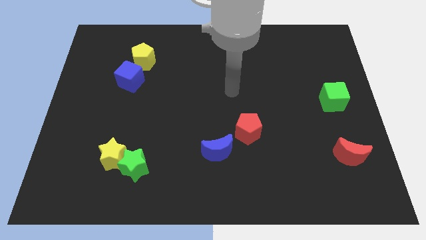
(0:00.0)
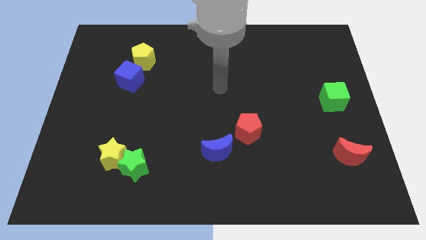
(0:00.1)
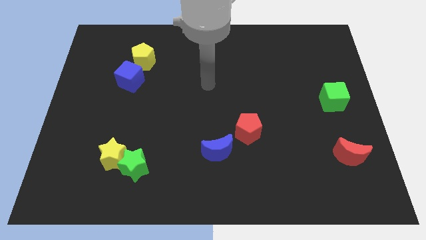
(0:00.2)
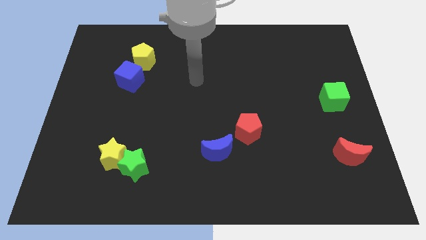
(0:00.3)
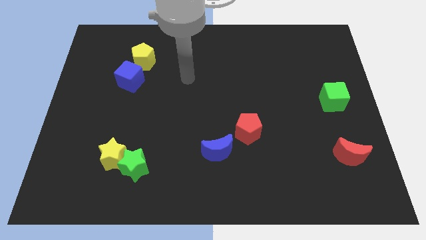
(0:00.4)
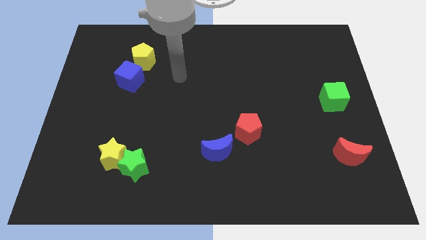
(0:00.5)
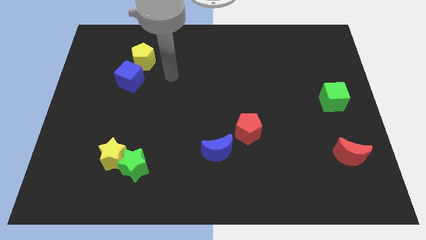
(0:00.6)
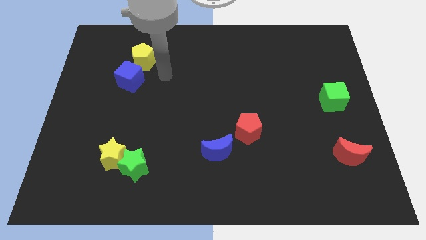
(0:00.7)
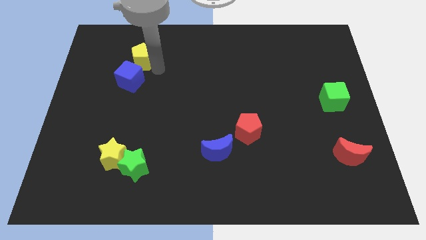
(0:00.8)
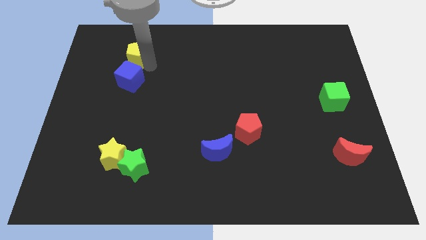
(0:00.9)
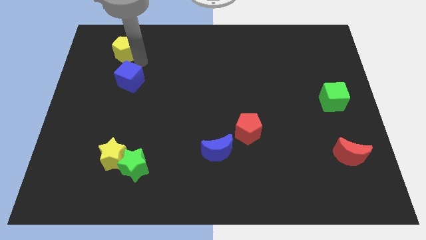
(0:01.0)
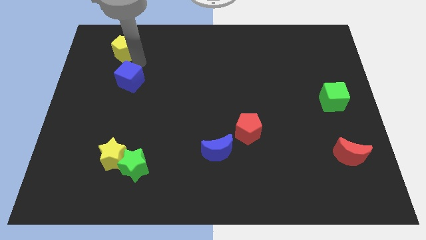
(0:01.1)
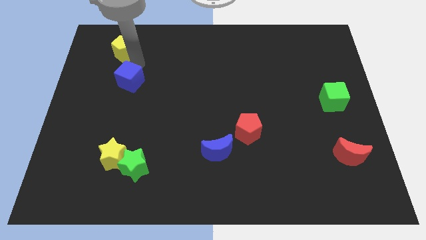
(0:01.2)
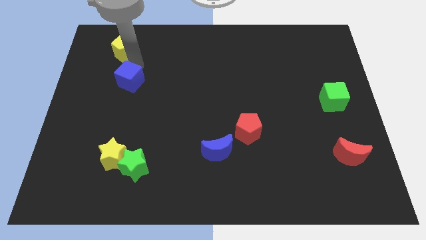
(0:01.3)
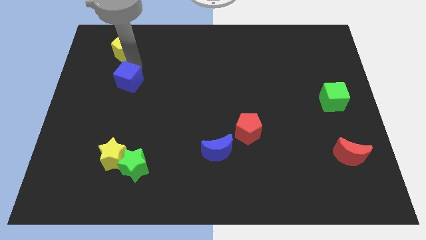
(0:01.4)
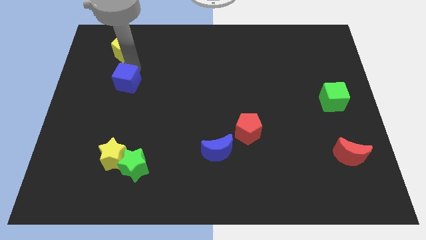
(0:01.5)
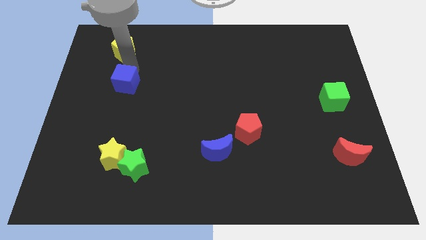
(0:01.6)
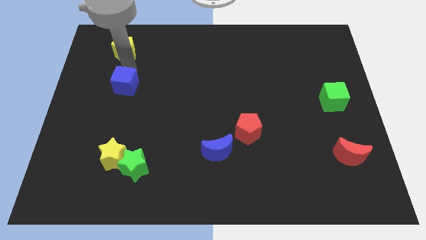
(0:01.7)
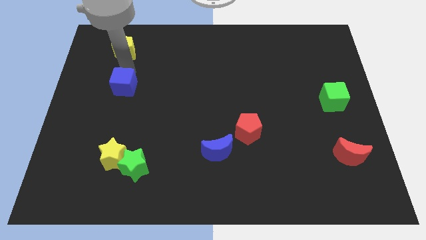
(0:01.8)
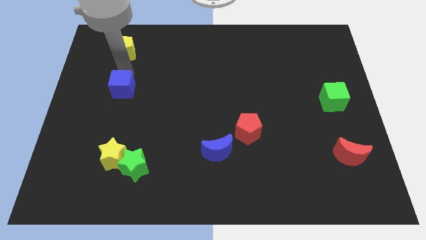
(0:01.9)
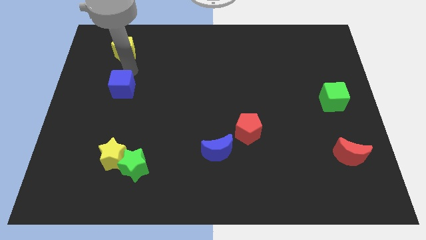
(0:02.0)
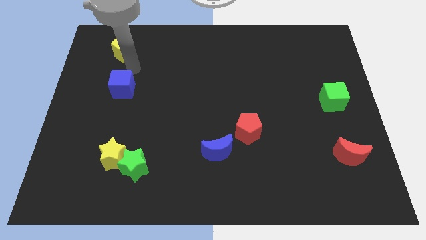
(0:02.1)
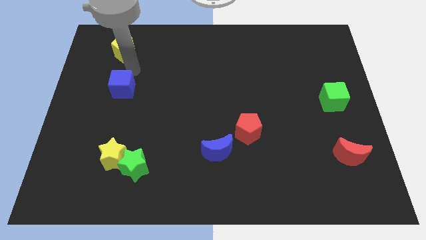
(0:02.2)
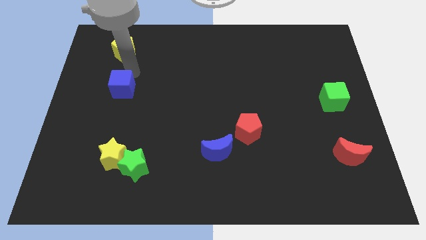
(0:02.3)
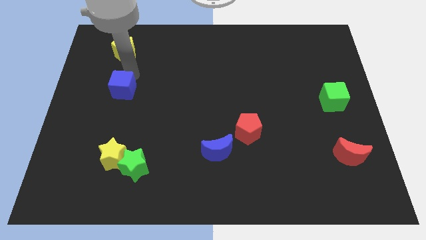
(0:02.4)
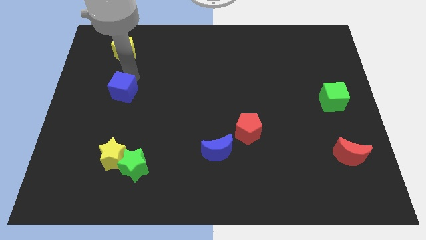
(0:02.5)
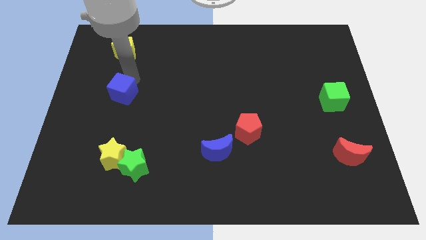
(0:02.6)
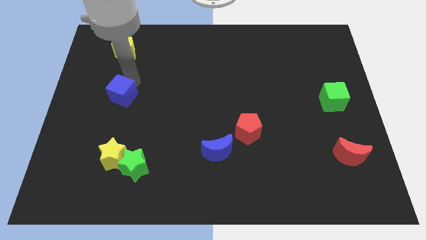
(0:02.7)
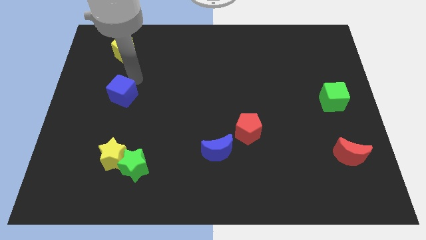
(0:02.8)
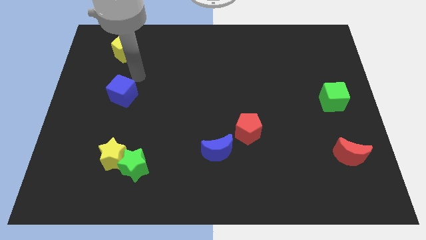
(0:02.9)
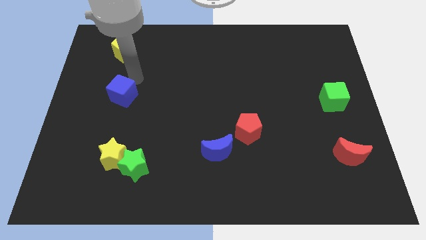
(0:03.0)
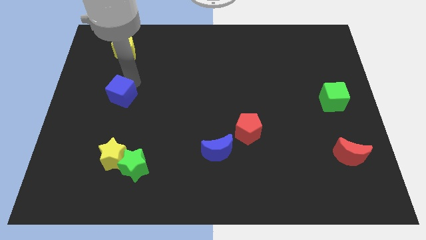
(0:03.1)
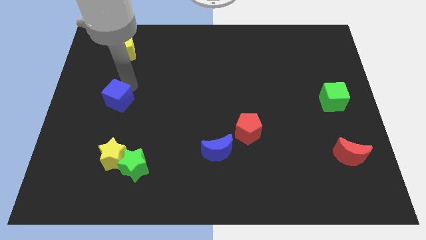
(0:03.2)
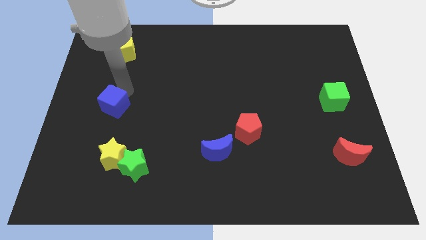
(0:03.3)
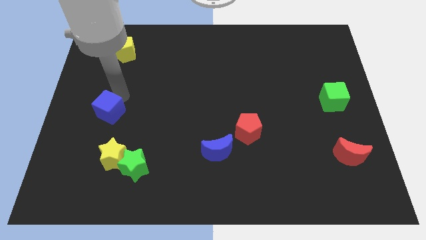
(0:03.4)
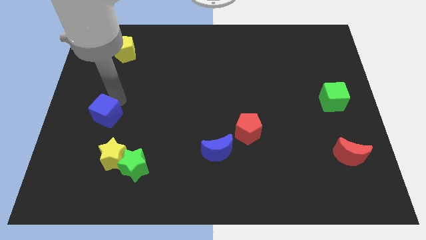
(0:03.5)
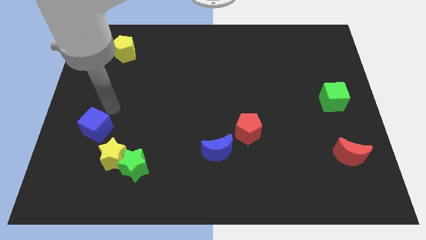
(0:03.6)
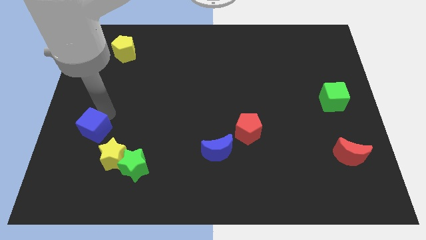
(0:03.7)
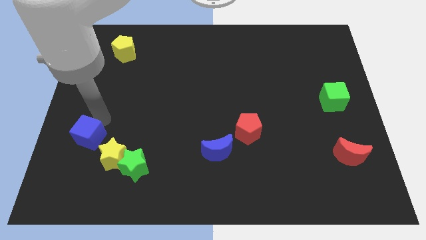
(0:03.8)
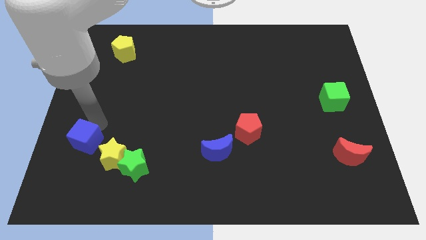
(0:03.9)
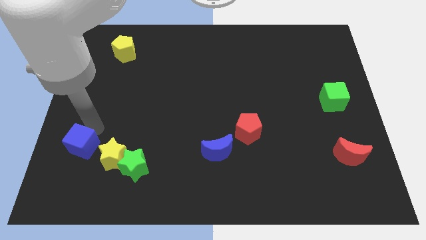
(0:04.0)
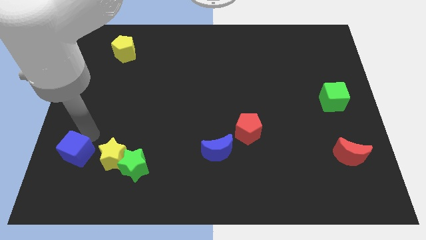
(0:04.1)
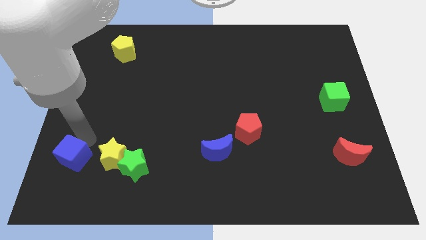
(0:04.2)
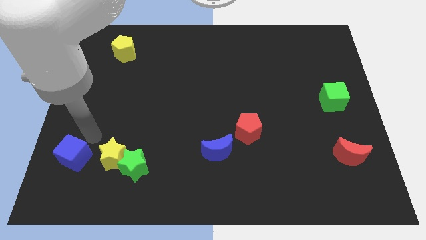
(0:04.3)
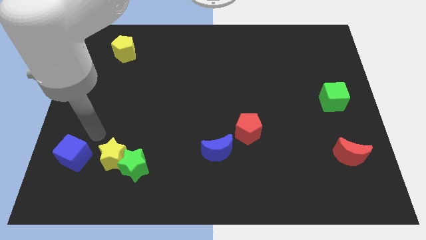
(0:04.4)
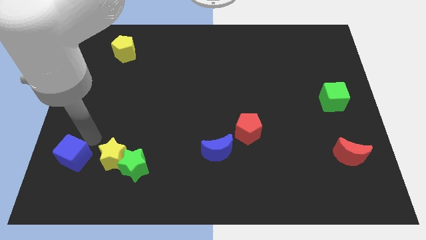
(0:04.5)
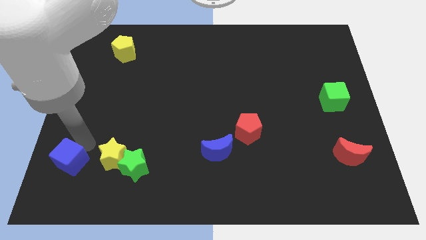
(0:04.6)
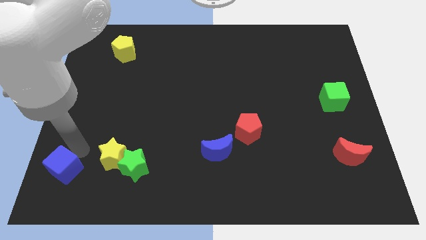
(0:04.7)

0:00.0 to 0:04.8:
move the blue cube to the bottom left of the board

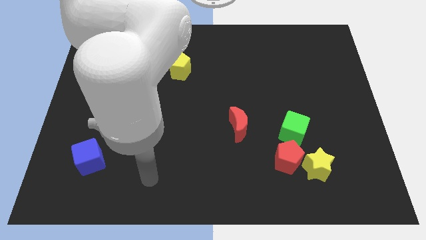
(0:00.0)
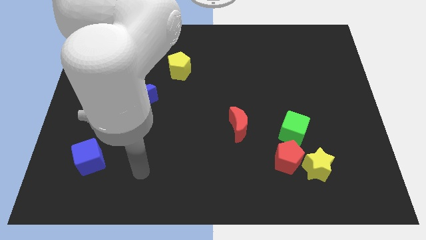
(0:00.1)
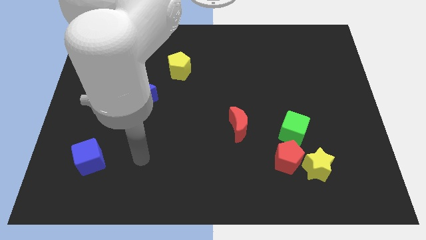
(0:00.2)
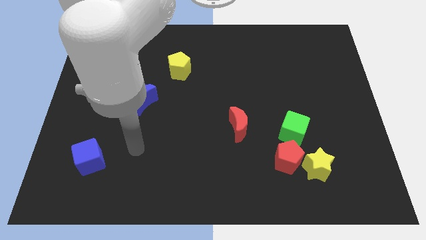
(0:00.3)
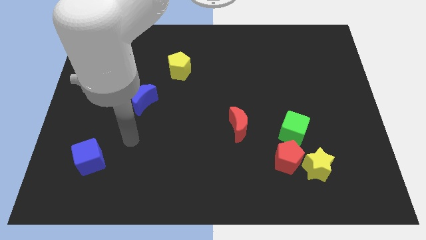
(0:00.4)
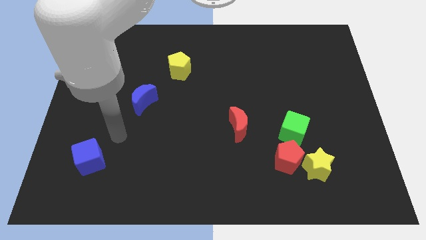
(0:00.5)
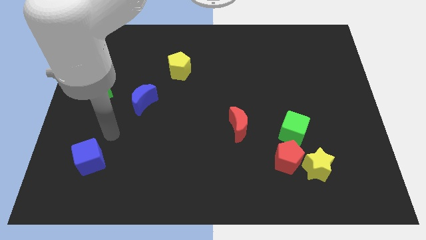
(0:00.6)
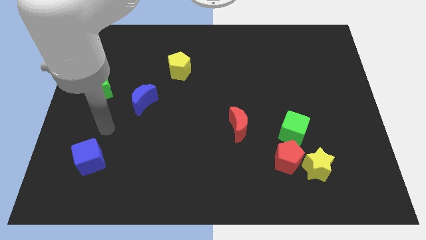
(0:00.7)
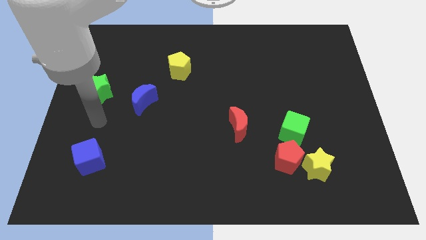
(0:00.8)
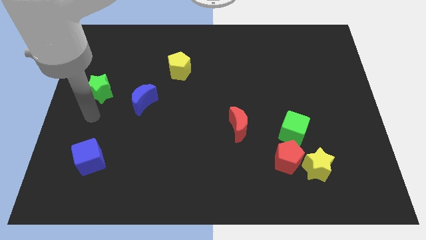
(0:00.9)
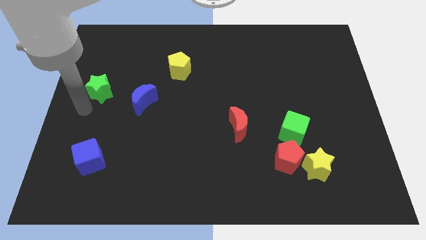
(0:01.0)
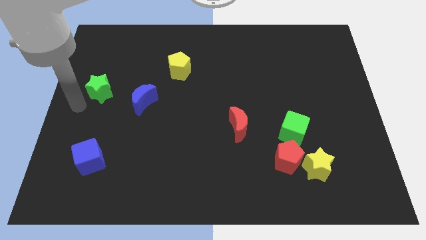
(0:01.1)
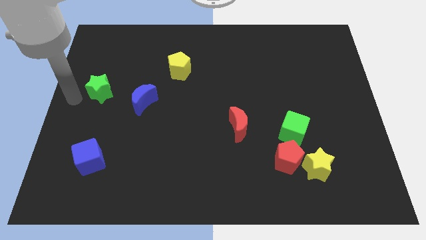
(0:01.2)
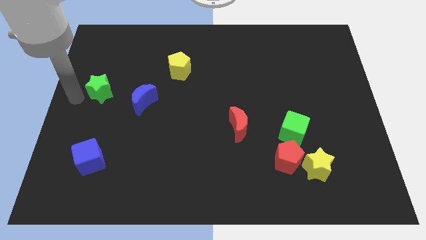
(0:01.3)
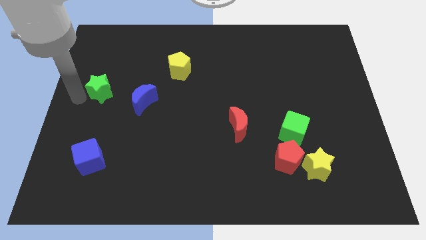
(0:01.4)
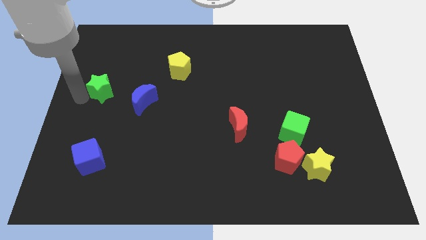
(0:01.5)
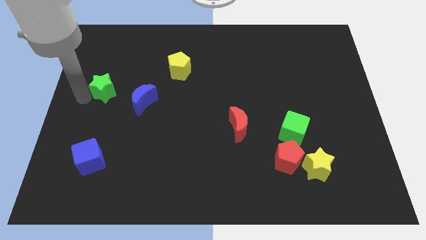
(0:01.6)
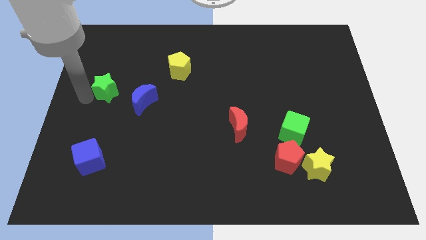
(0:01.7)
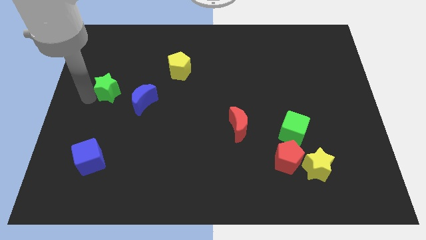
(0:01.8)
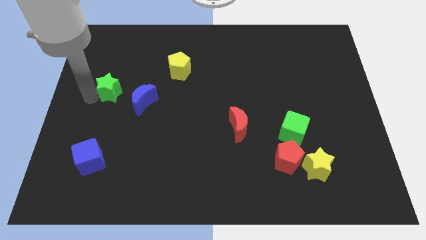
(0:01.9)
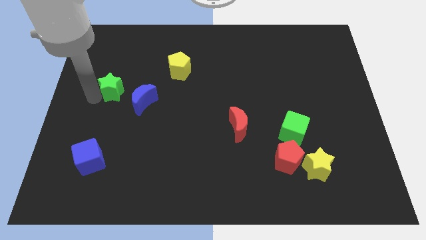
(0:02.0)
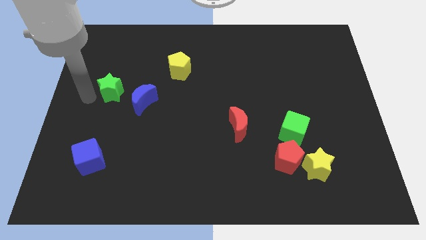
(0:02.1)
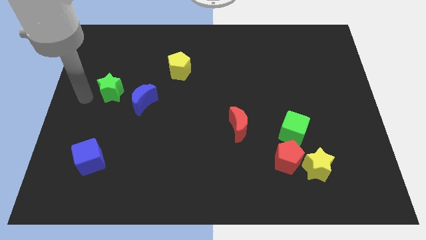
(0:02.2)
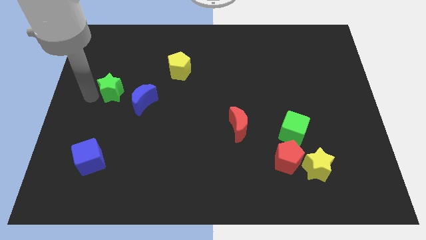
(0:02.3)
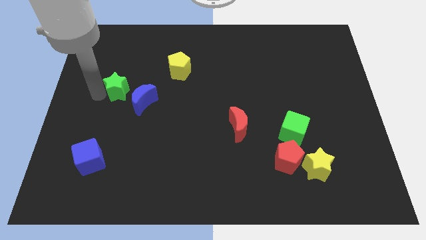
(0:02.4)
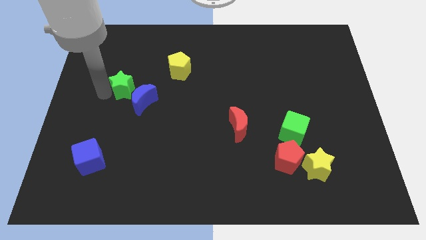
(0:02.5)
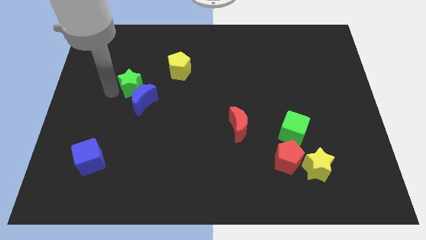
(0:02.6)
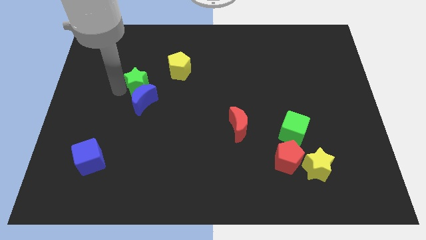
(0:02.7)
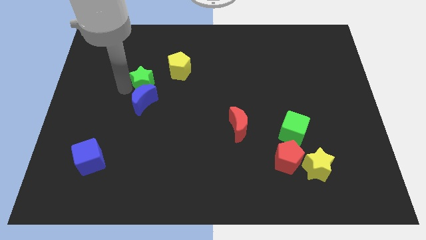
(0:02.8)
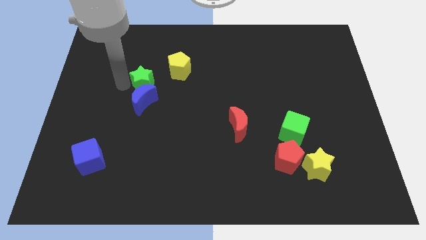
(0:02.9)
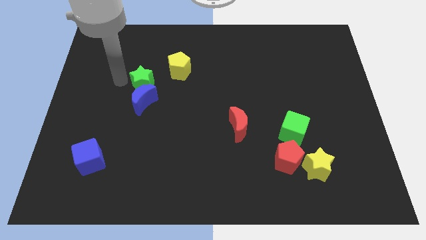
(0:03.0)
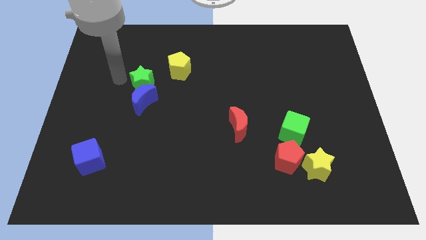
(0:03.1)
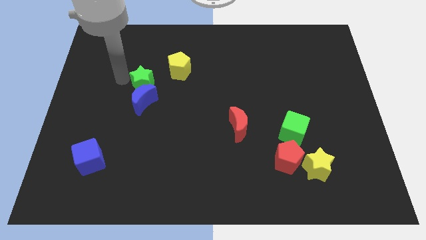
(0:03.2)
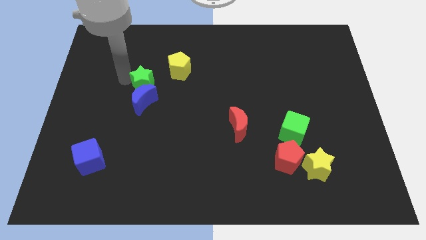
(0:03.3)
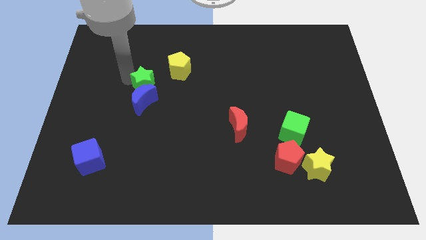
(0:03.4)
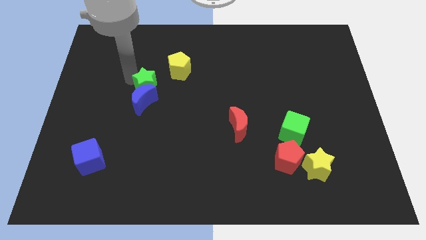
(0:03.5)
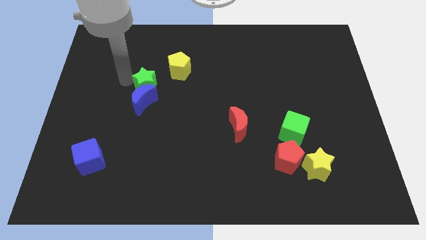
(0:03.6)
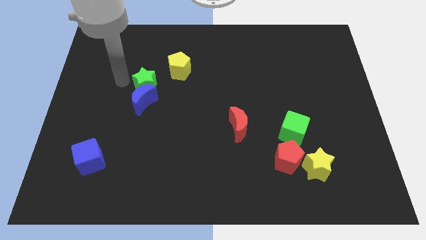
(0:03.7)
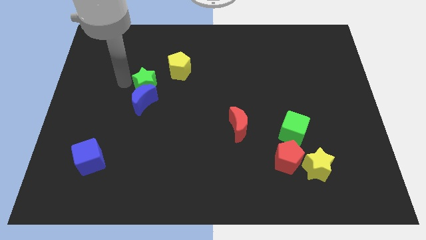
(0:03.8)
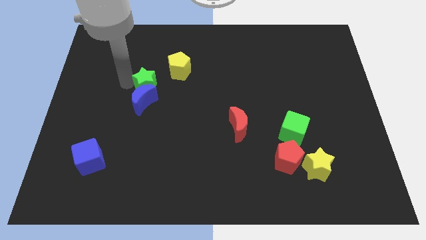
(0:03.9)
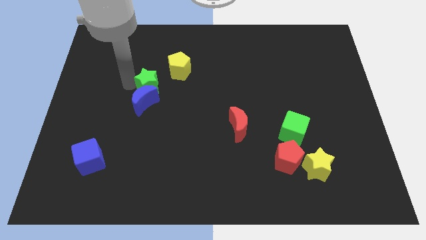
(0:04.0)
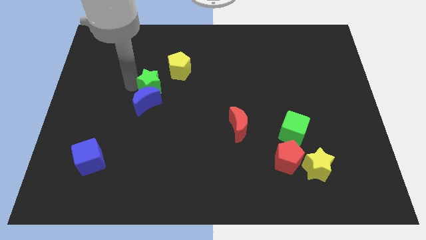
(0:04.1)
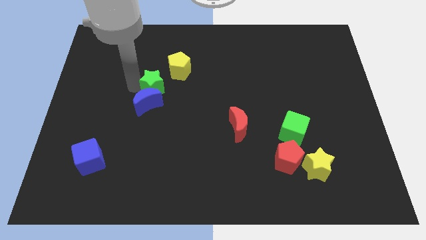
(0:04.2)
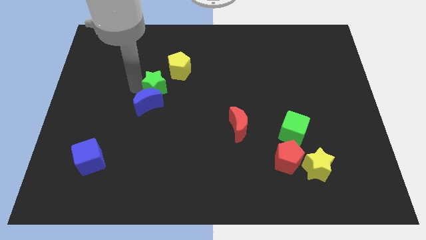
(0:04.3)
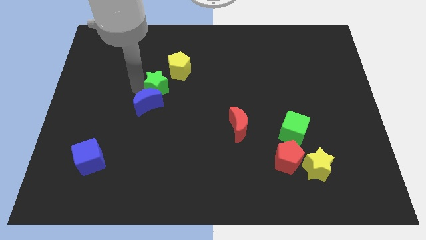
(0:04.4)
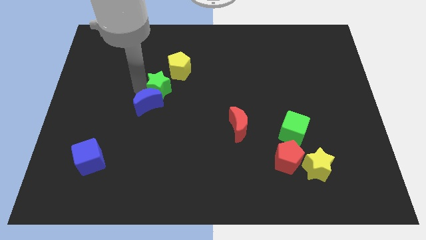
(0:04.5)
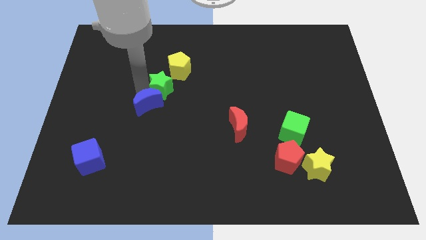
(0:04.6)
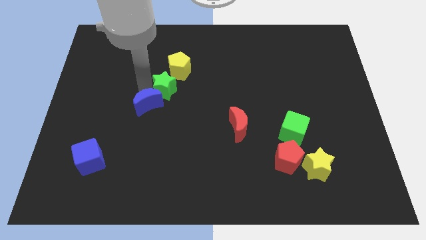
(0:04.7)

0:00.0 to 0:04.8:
move the green star to the middle
